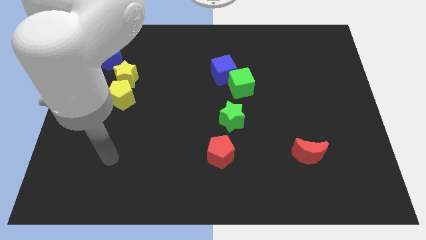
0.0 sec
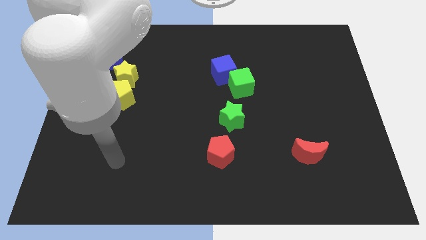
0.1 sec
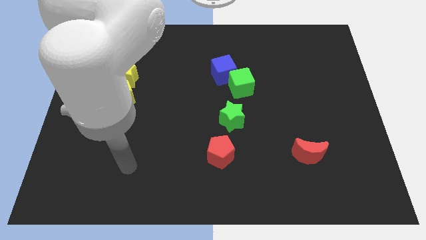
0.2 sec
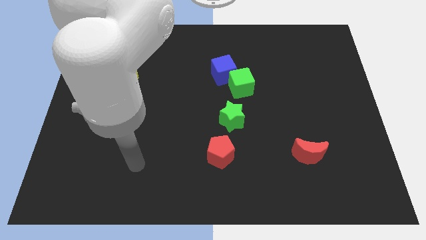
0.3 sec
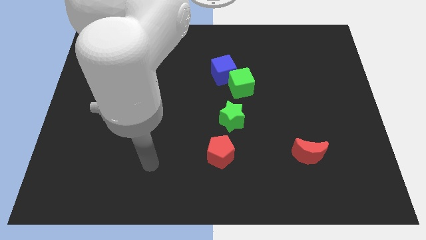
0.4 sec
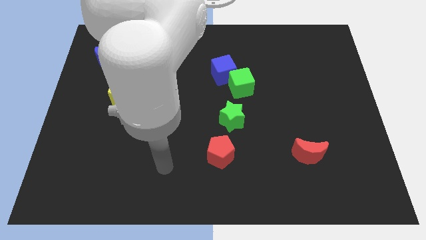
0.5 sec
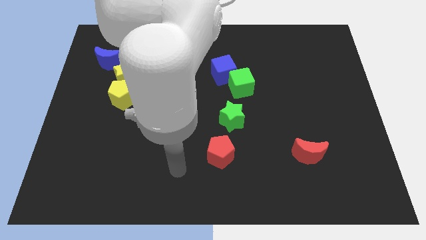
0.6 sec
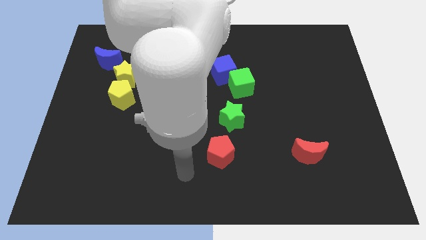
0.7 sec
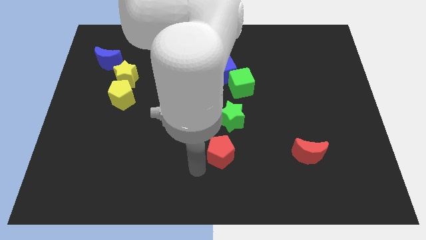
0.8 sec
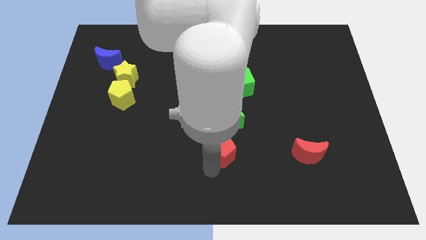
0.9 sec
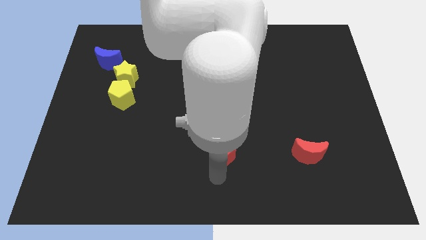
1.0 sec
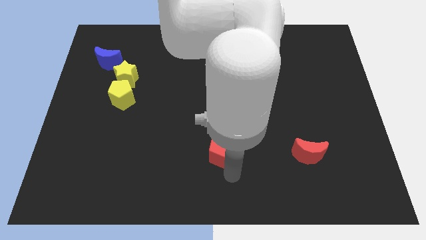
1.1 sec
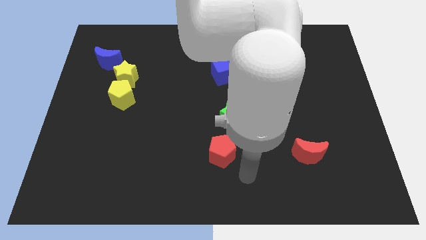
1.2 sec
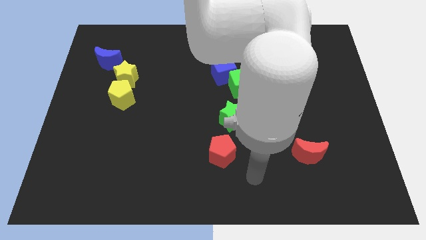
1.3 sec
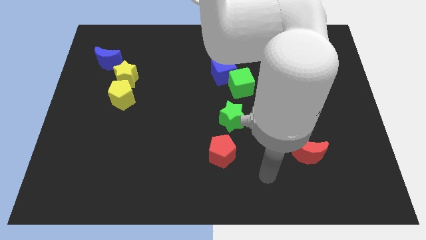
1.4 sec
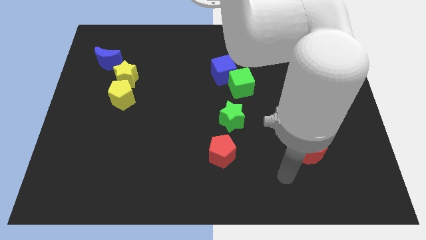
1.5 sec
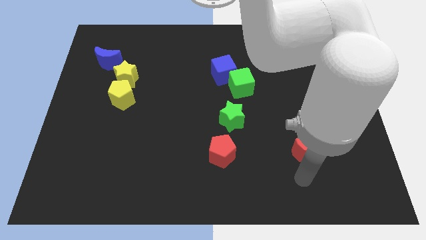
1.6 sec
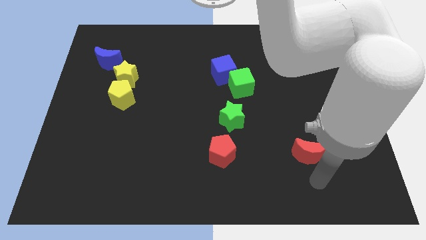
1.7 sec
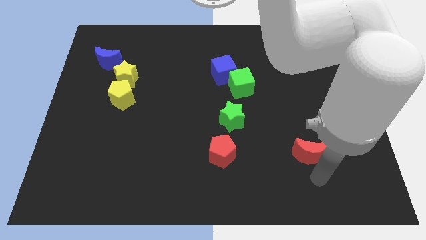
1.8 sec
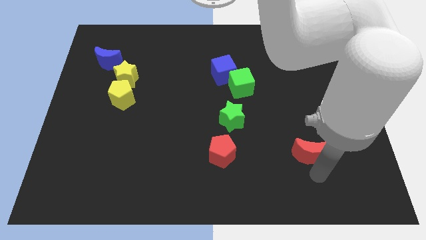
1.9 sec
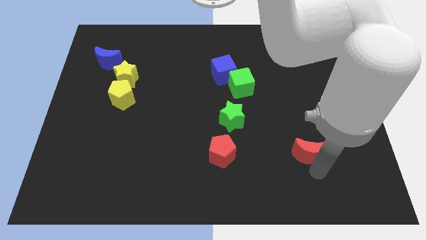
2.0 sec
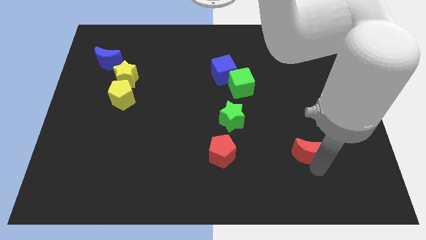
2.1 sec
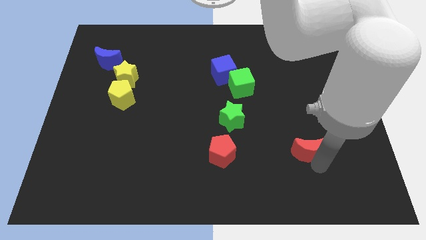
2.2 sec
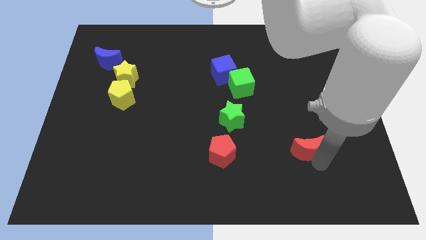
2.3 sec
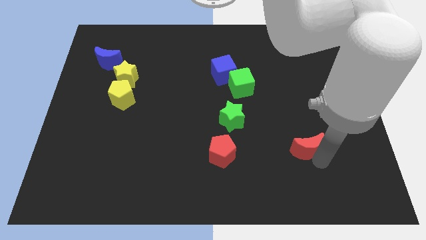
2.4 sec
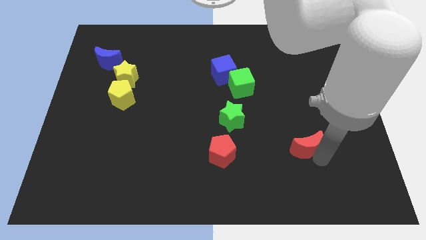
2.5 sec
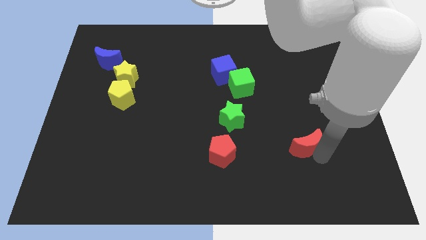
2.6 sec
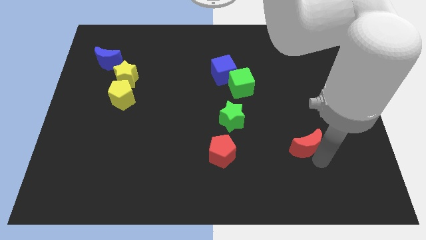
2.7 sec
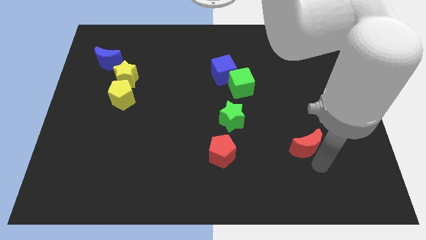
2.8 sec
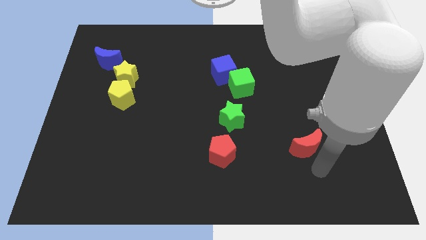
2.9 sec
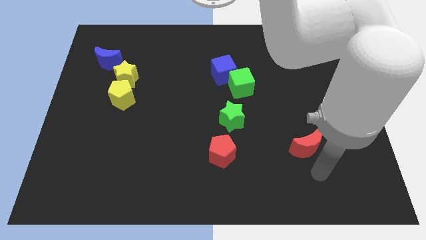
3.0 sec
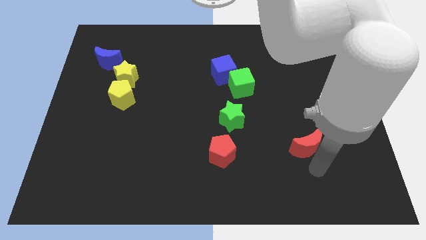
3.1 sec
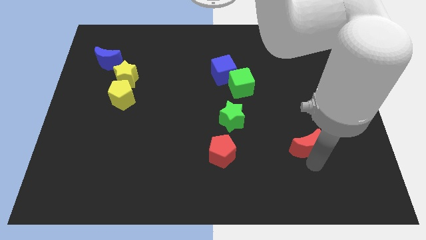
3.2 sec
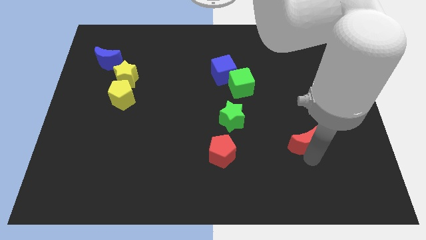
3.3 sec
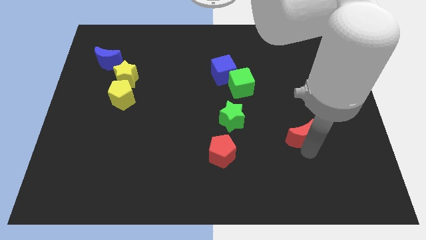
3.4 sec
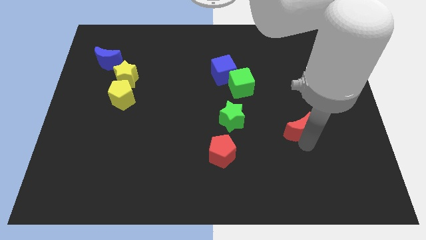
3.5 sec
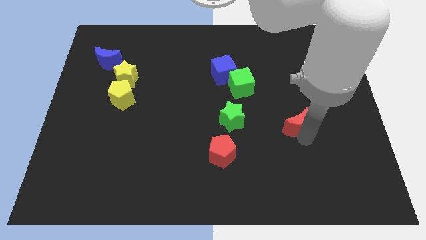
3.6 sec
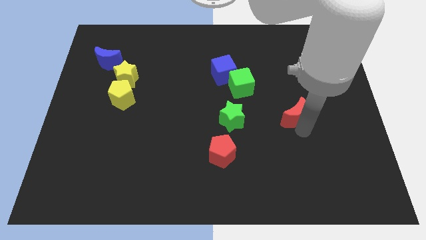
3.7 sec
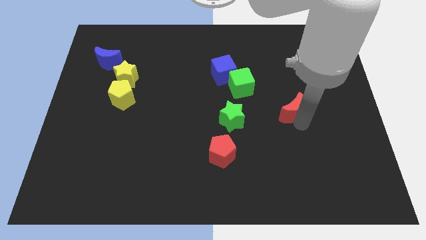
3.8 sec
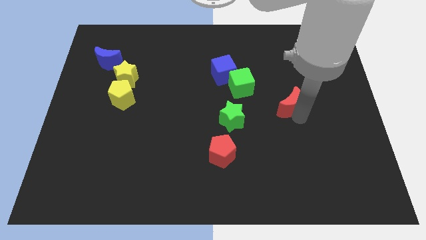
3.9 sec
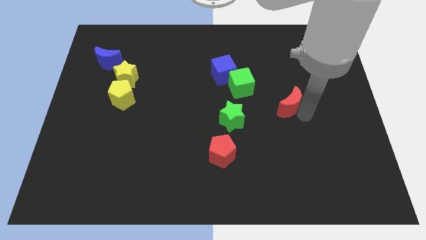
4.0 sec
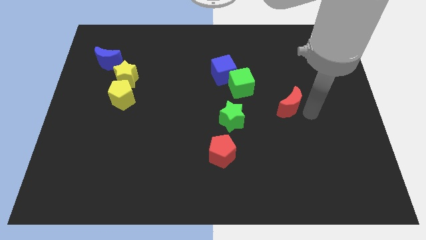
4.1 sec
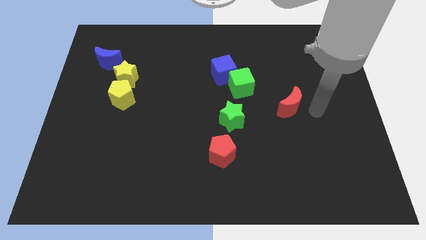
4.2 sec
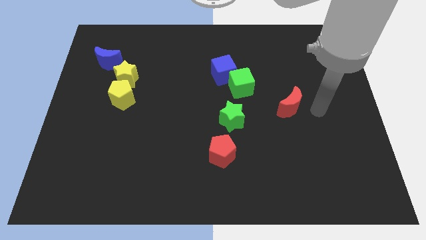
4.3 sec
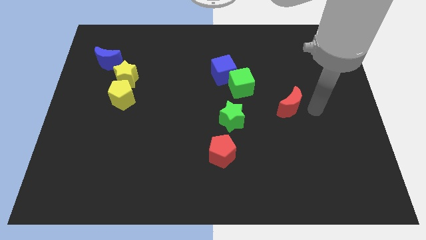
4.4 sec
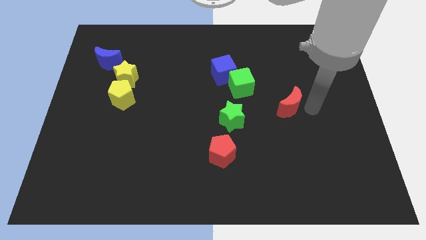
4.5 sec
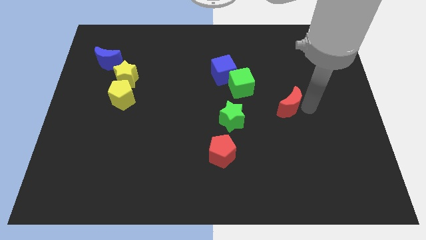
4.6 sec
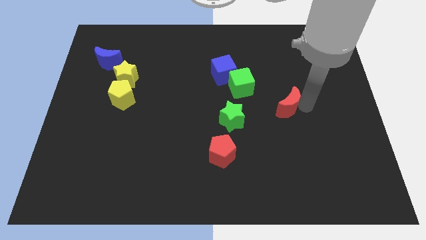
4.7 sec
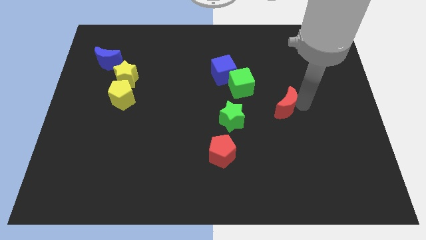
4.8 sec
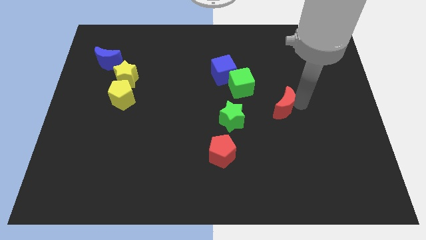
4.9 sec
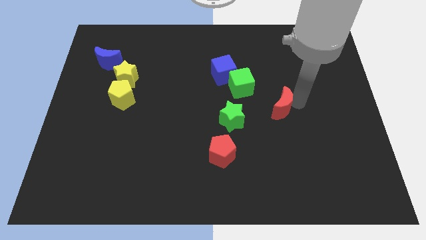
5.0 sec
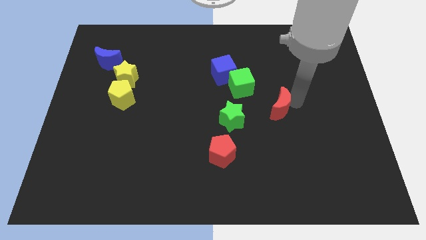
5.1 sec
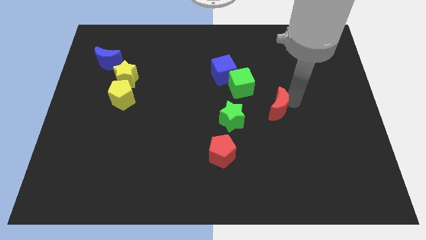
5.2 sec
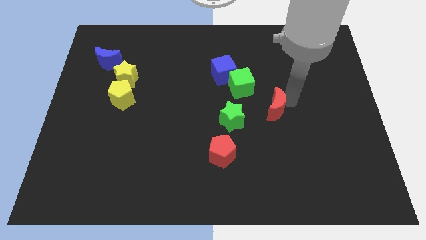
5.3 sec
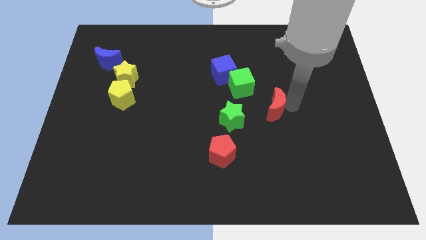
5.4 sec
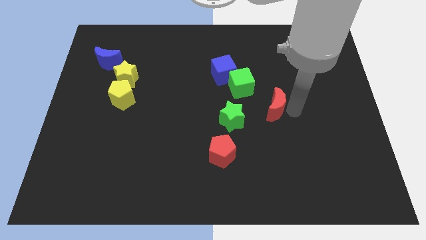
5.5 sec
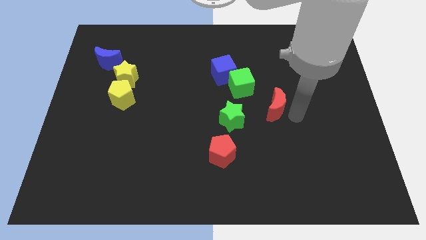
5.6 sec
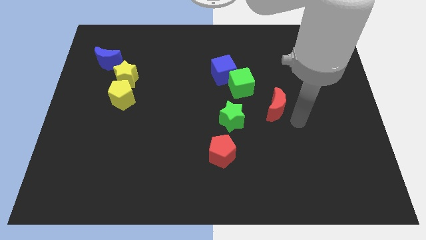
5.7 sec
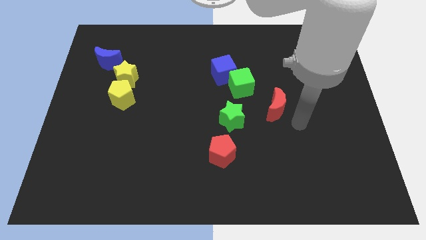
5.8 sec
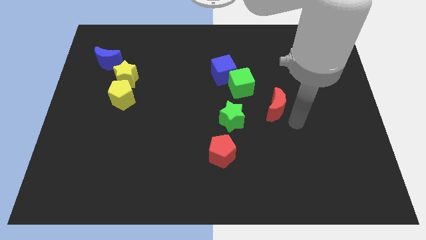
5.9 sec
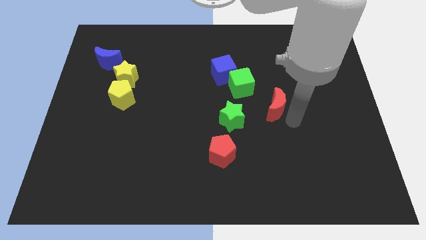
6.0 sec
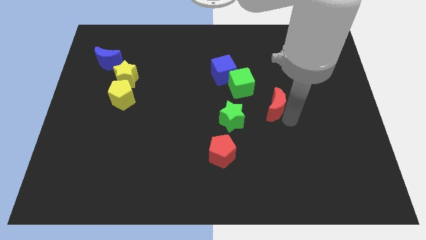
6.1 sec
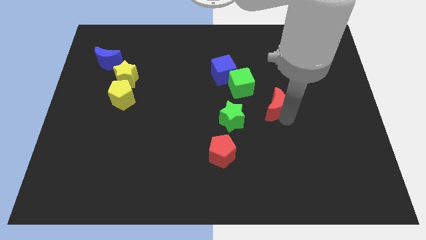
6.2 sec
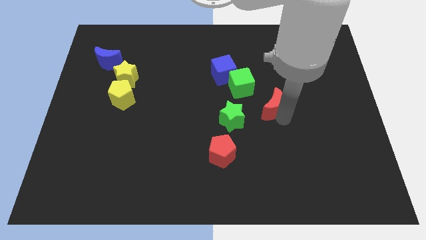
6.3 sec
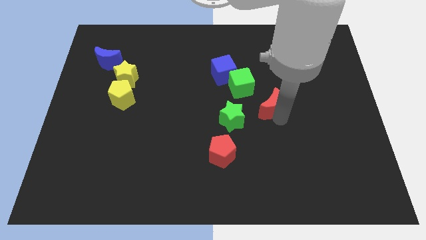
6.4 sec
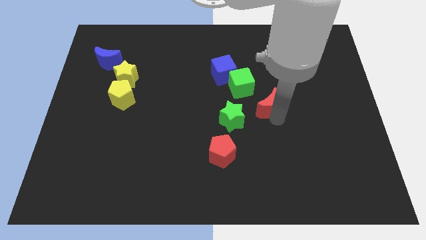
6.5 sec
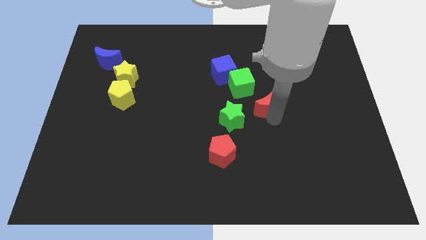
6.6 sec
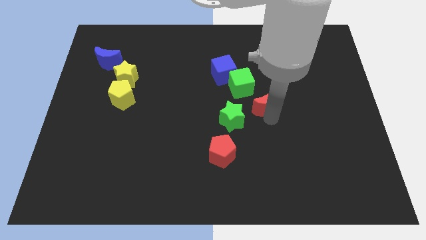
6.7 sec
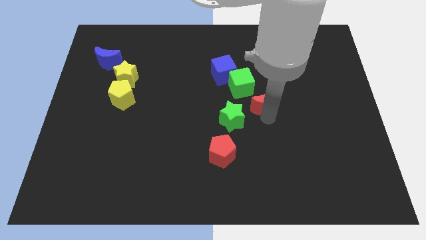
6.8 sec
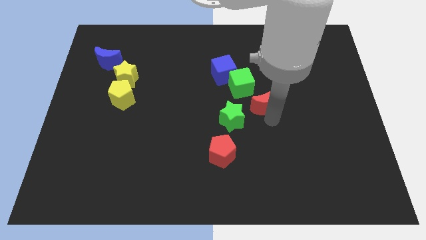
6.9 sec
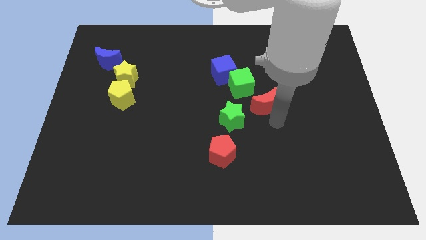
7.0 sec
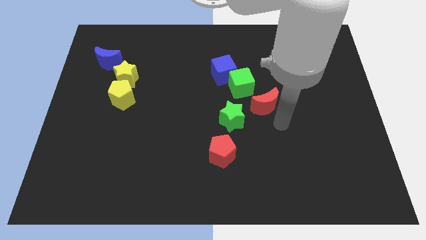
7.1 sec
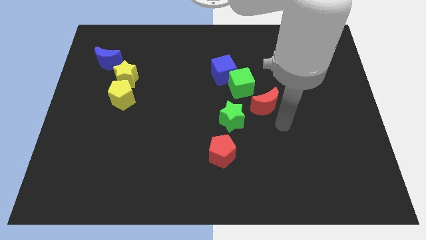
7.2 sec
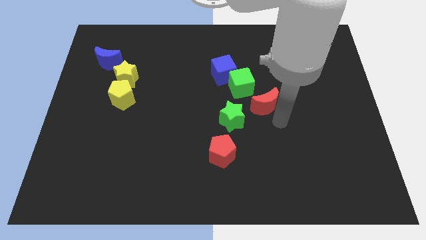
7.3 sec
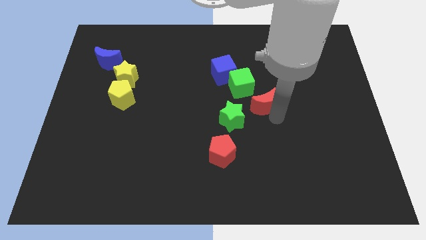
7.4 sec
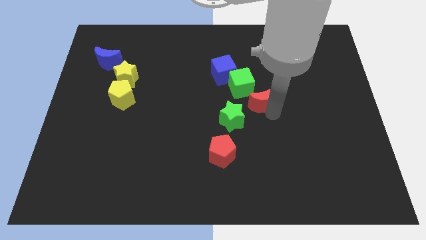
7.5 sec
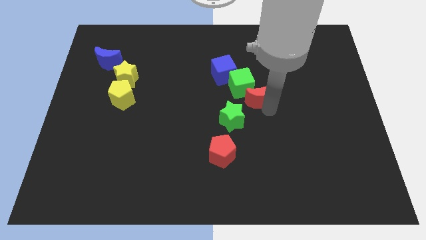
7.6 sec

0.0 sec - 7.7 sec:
slide the red moon towards the green cube
